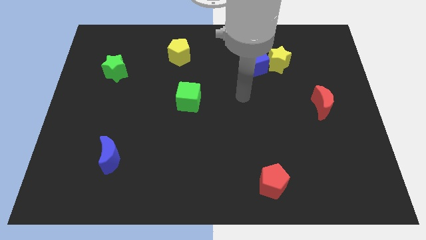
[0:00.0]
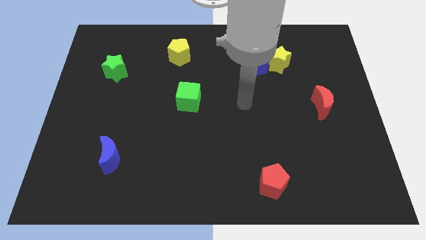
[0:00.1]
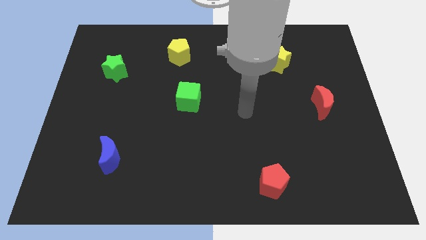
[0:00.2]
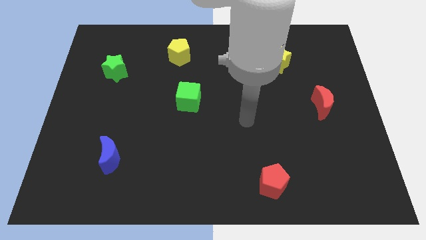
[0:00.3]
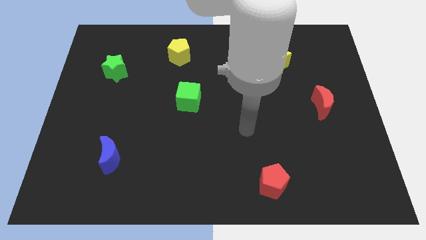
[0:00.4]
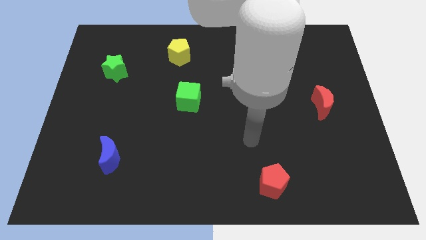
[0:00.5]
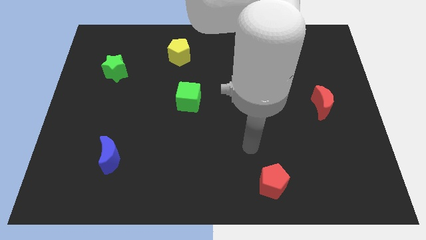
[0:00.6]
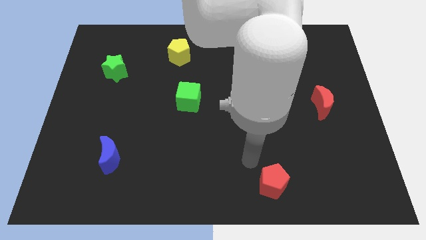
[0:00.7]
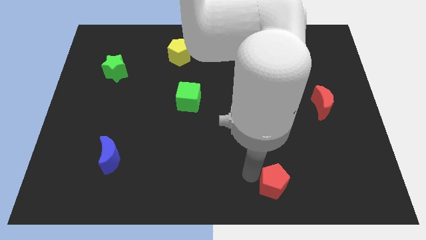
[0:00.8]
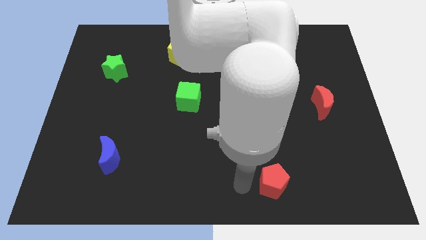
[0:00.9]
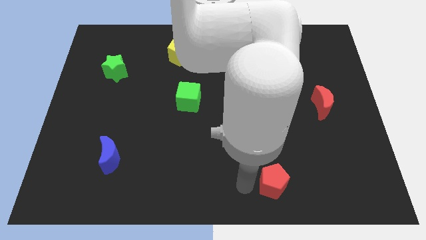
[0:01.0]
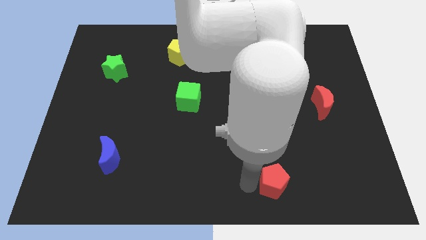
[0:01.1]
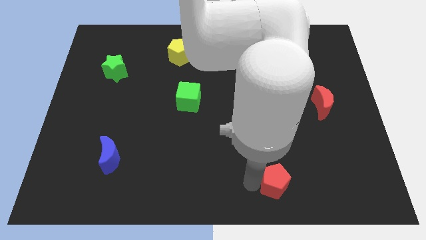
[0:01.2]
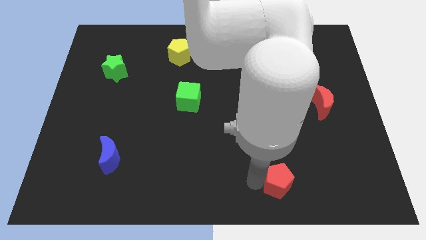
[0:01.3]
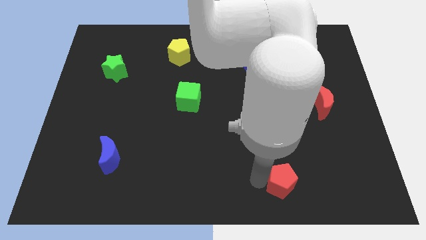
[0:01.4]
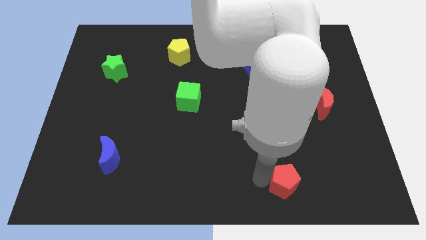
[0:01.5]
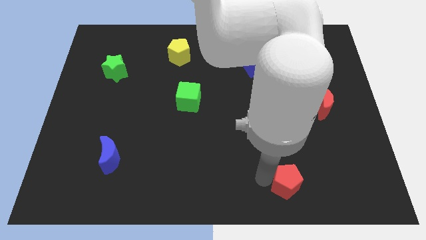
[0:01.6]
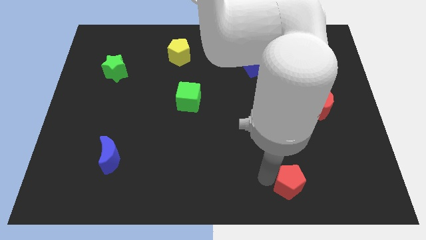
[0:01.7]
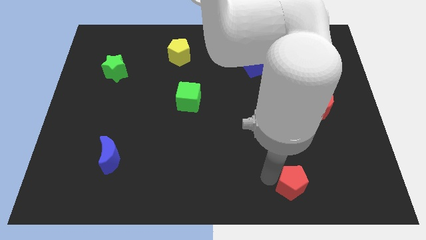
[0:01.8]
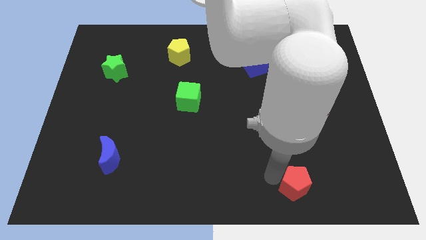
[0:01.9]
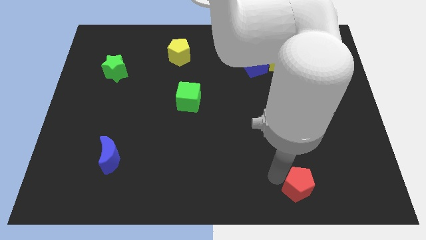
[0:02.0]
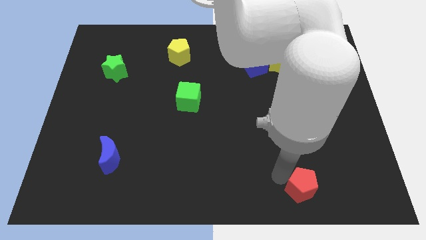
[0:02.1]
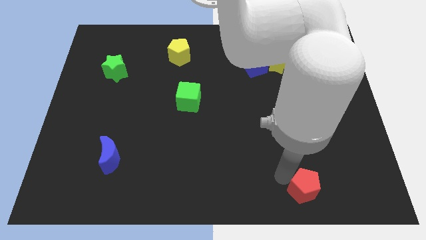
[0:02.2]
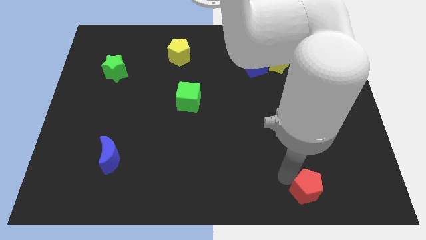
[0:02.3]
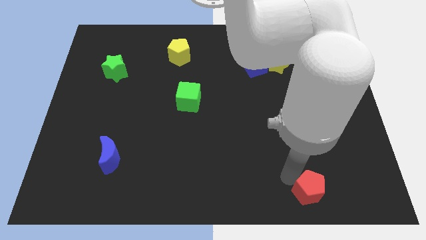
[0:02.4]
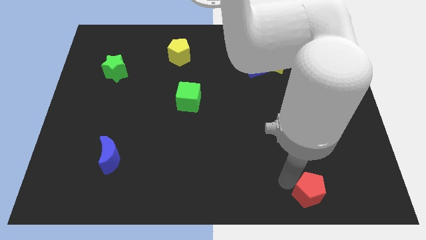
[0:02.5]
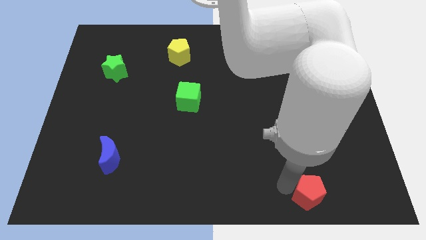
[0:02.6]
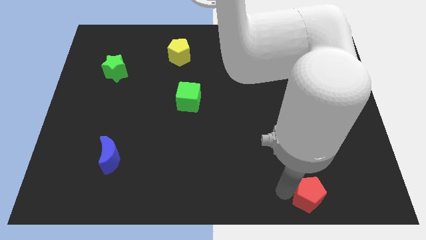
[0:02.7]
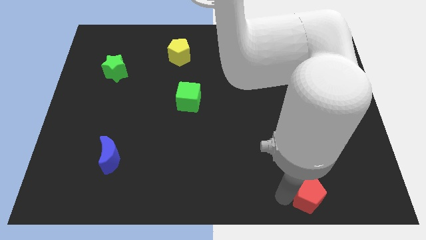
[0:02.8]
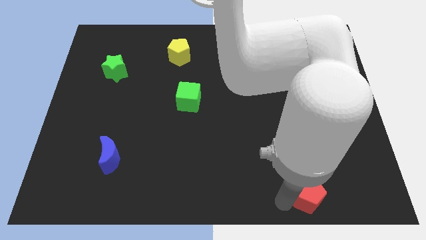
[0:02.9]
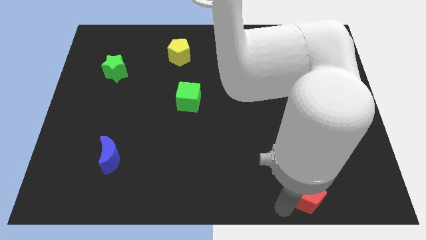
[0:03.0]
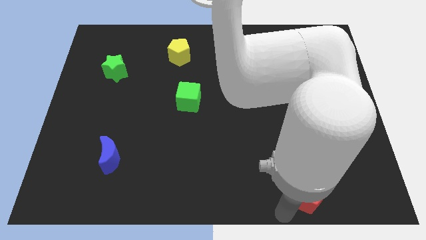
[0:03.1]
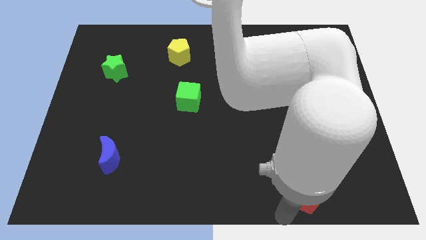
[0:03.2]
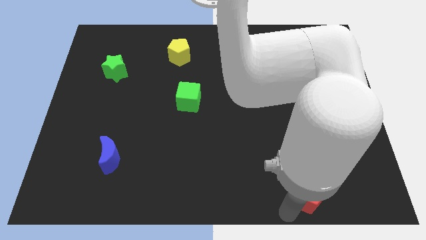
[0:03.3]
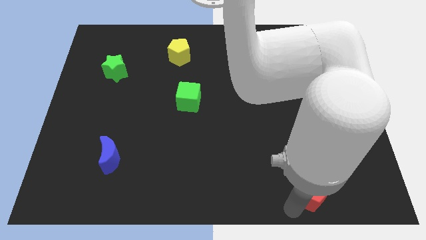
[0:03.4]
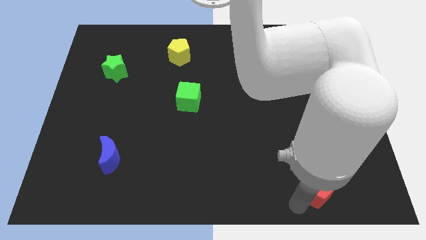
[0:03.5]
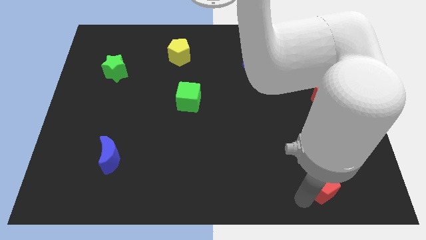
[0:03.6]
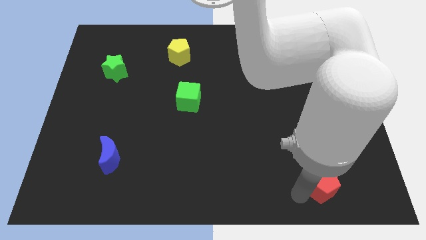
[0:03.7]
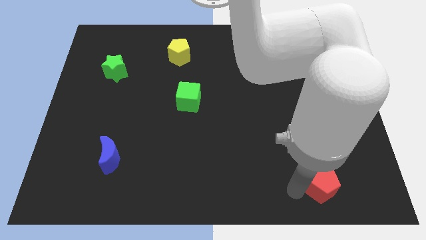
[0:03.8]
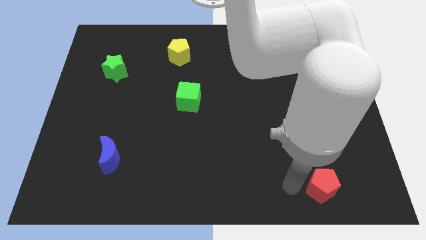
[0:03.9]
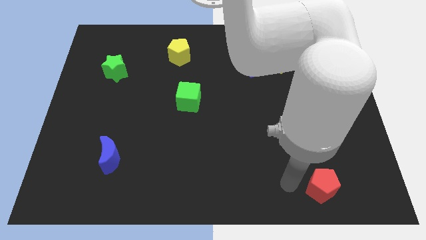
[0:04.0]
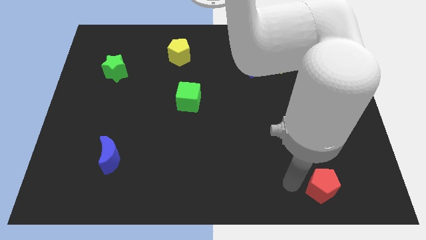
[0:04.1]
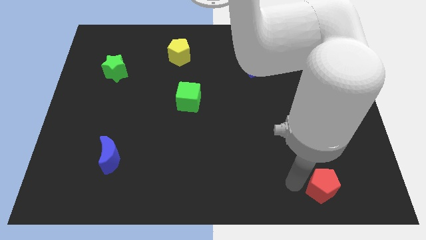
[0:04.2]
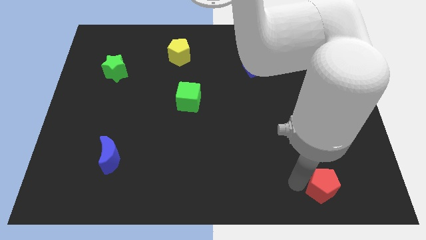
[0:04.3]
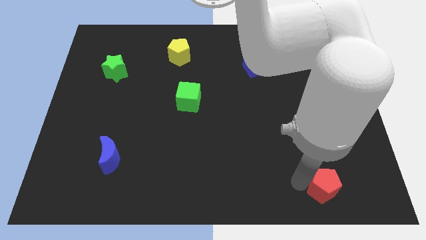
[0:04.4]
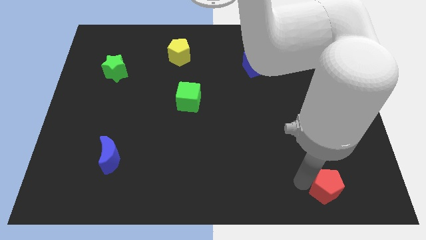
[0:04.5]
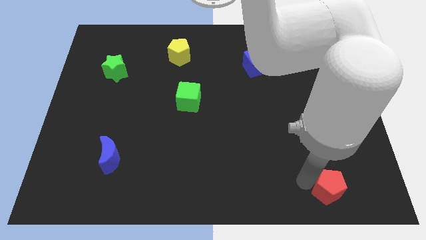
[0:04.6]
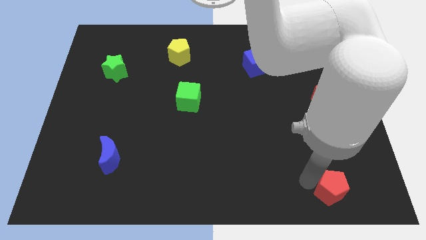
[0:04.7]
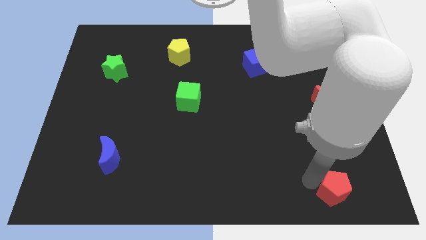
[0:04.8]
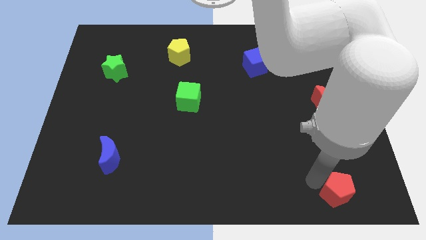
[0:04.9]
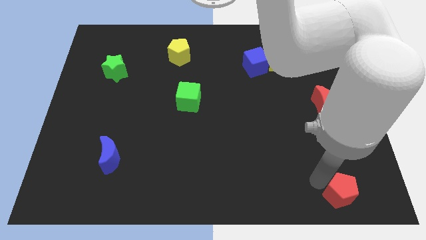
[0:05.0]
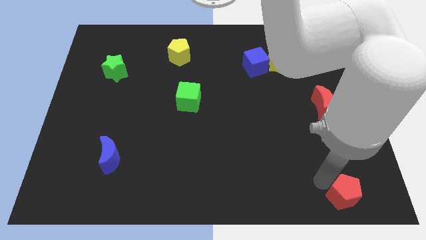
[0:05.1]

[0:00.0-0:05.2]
push the red pentagon to the lower right corner
